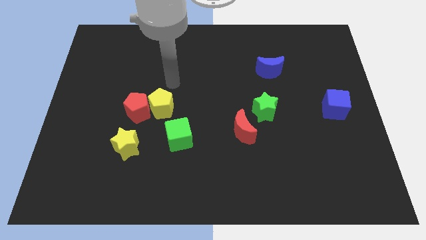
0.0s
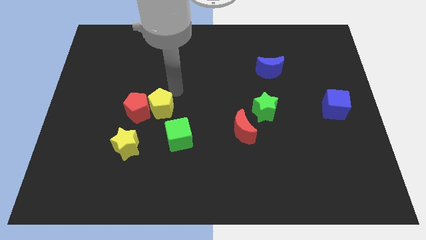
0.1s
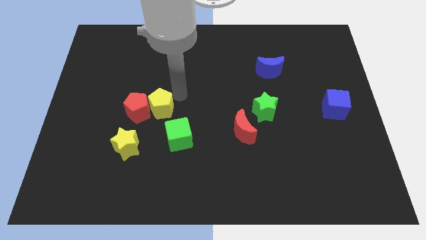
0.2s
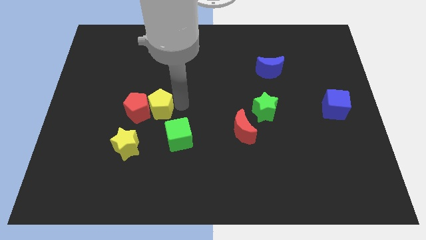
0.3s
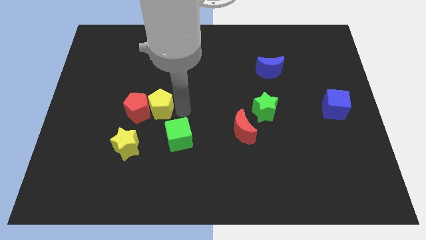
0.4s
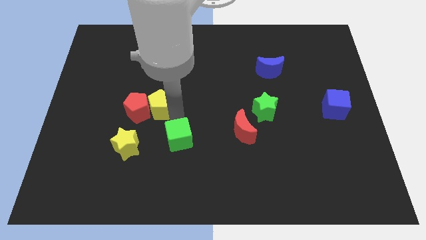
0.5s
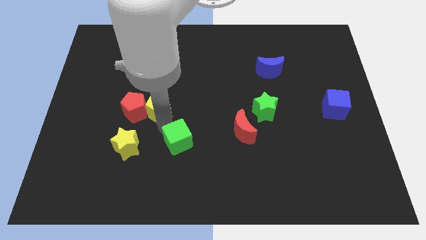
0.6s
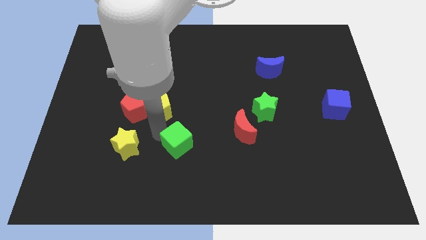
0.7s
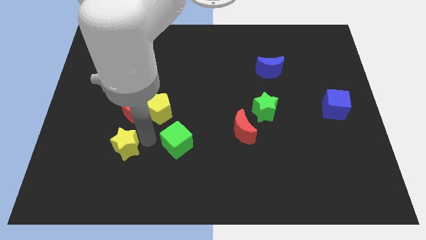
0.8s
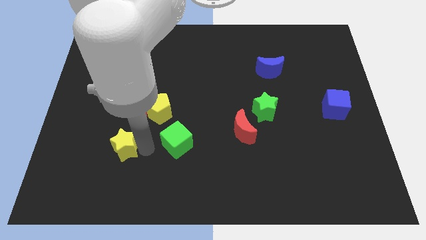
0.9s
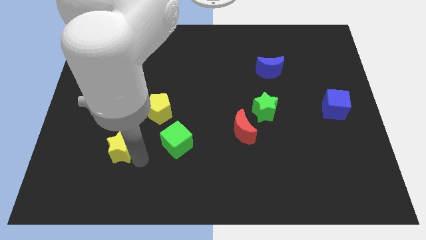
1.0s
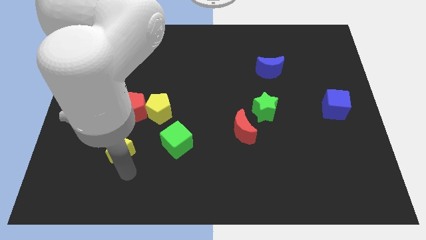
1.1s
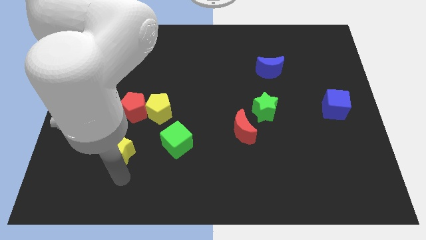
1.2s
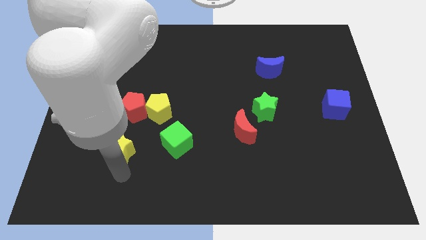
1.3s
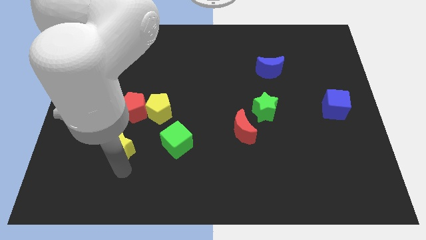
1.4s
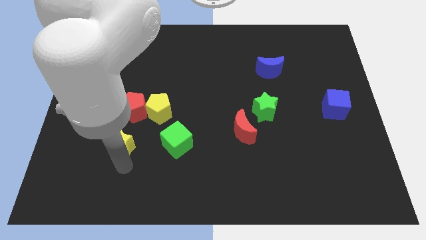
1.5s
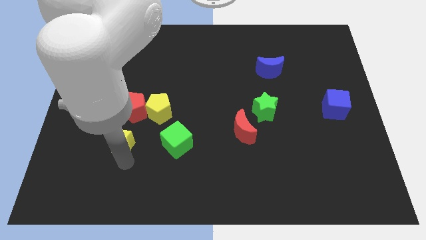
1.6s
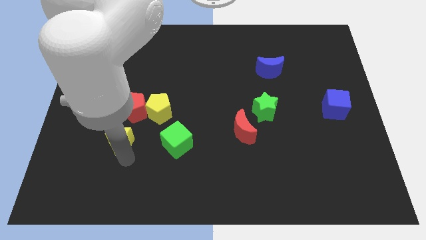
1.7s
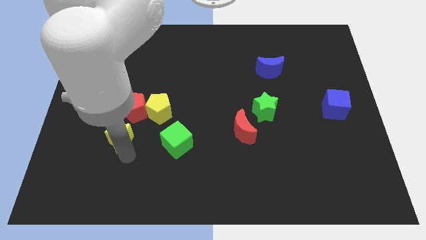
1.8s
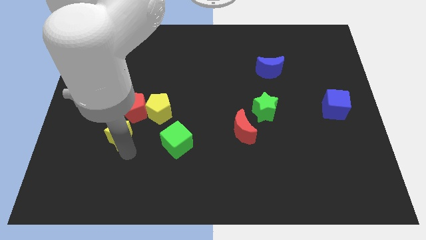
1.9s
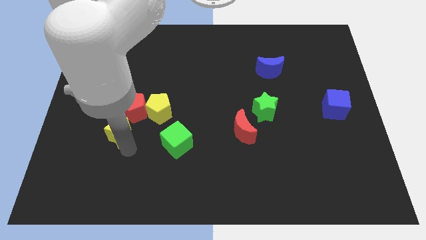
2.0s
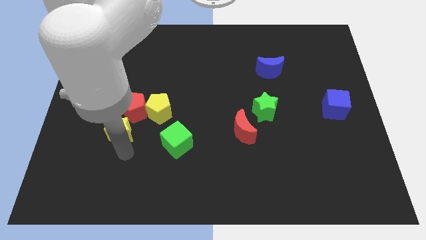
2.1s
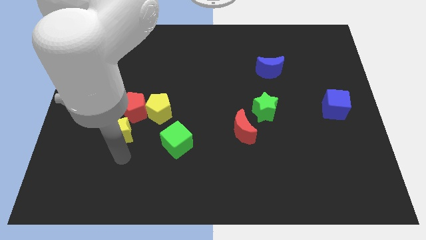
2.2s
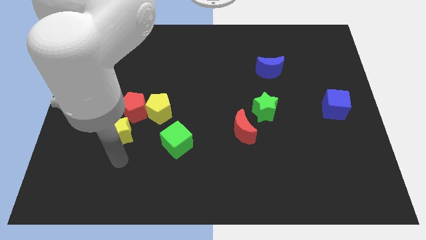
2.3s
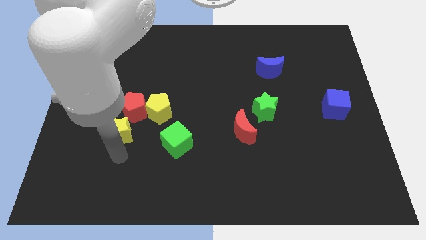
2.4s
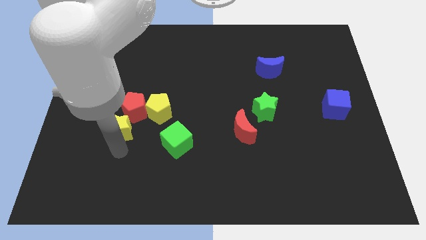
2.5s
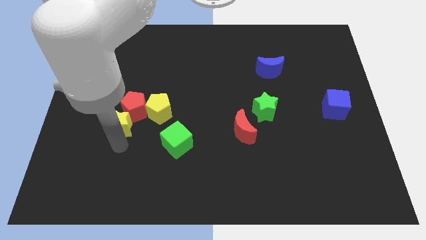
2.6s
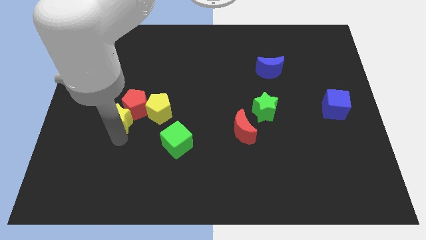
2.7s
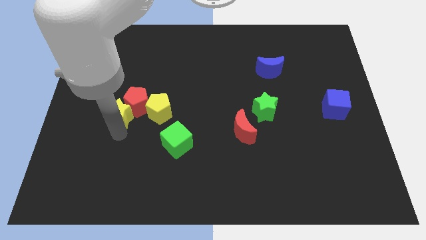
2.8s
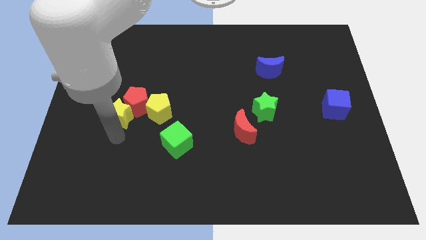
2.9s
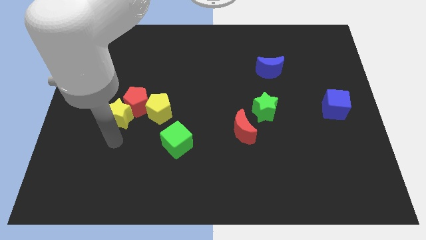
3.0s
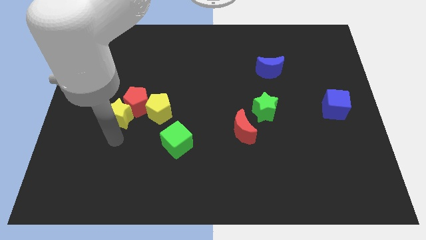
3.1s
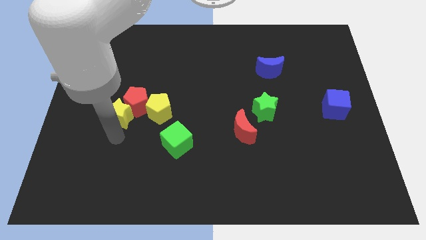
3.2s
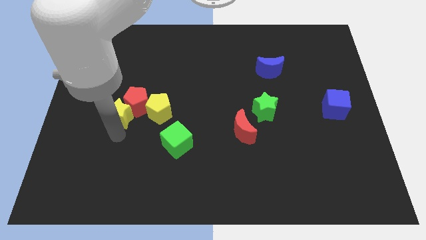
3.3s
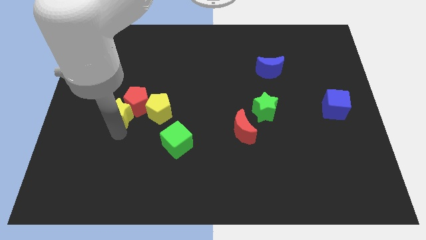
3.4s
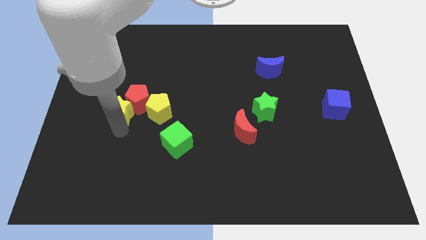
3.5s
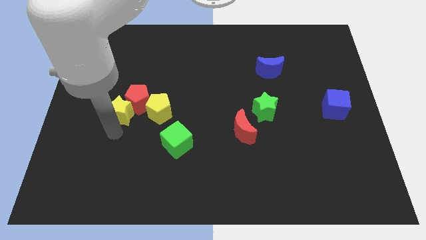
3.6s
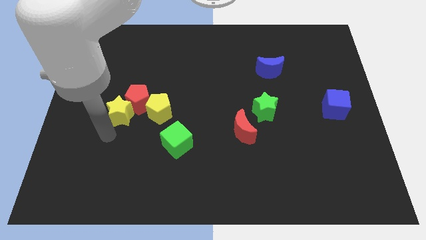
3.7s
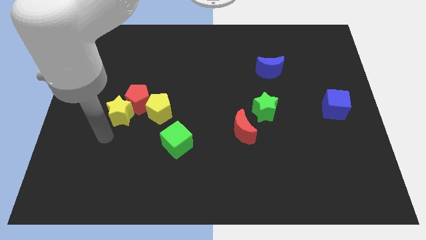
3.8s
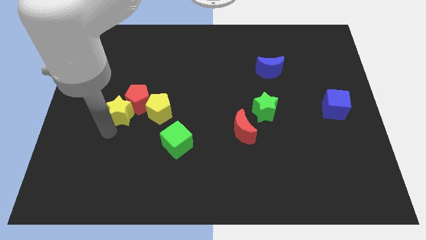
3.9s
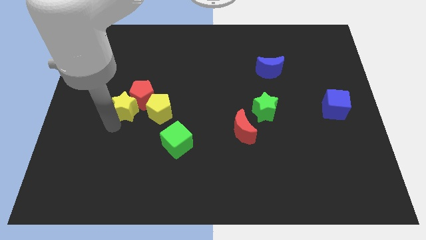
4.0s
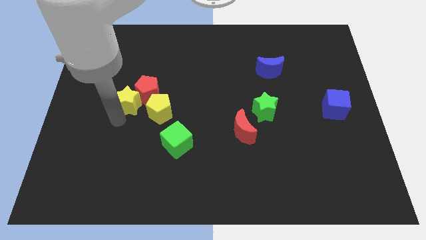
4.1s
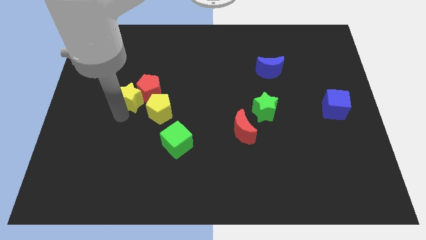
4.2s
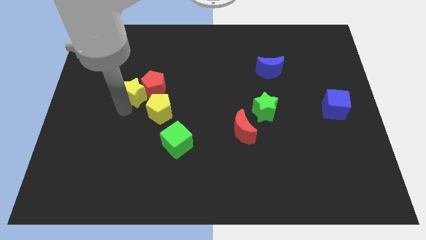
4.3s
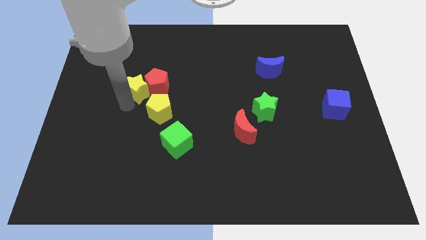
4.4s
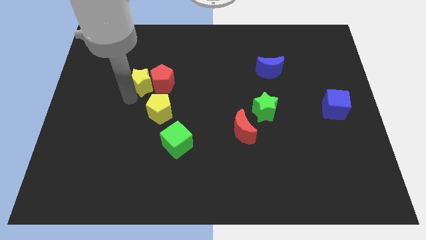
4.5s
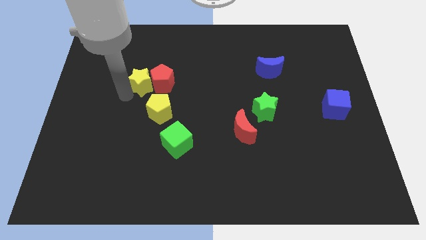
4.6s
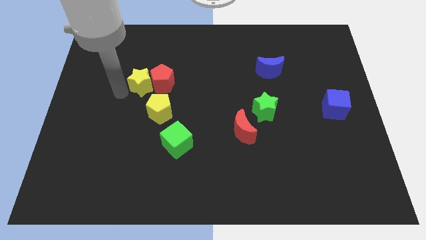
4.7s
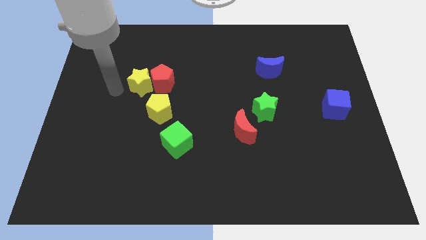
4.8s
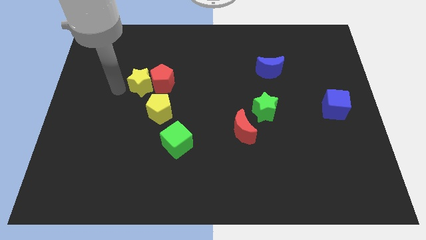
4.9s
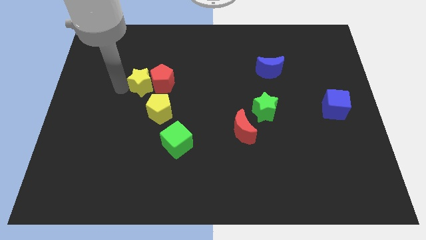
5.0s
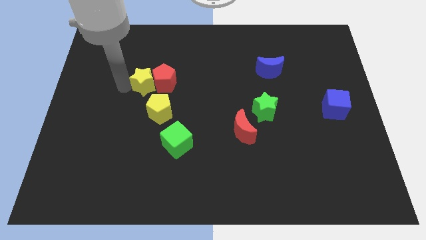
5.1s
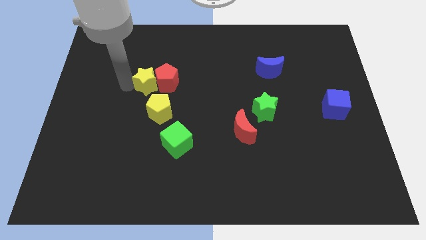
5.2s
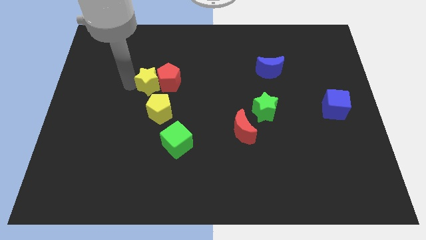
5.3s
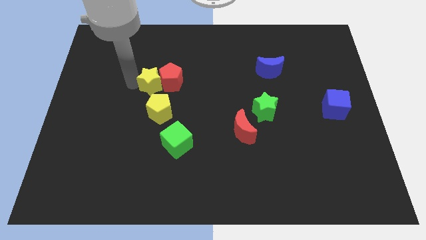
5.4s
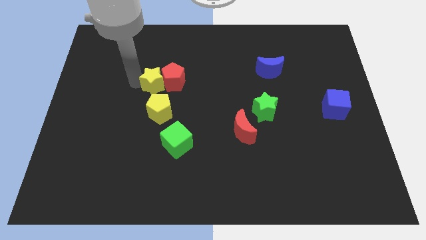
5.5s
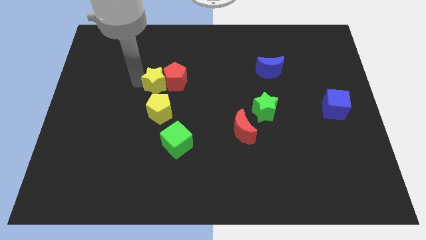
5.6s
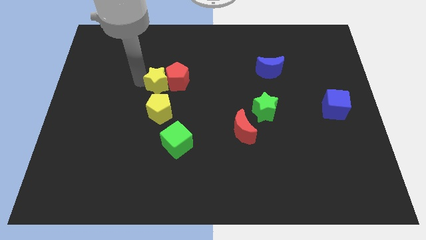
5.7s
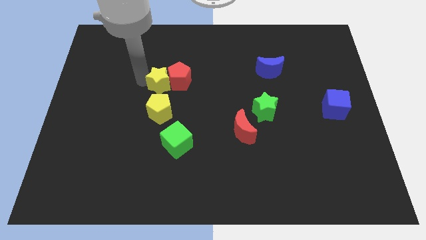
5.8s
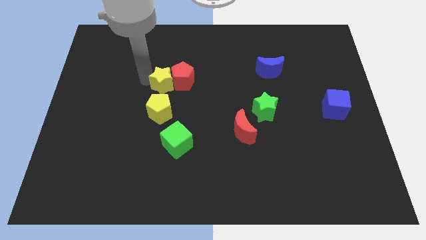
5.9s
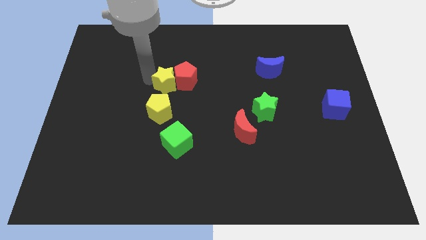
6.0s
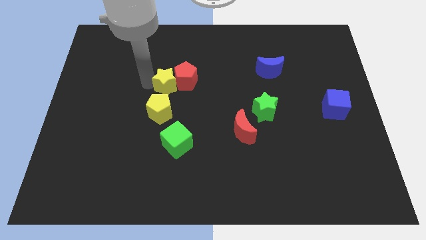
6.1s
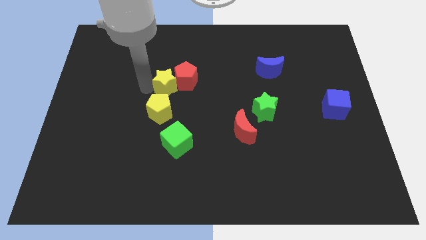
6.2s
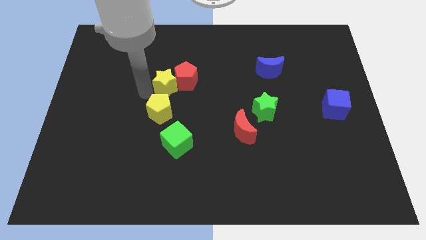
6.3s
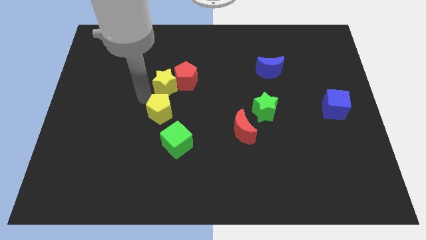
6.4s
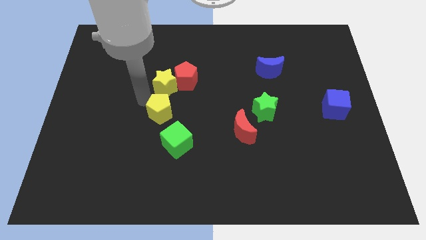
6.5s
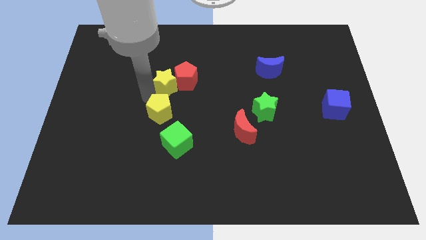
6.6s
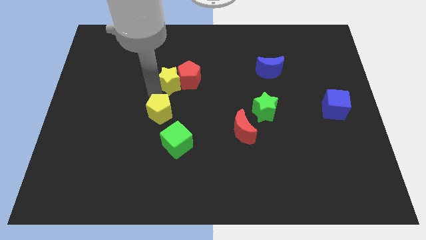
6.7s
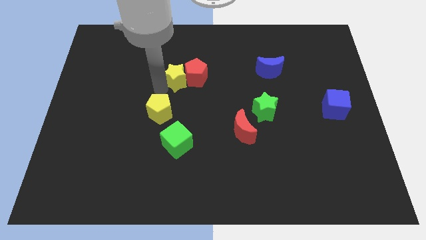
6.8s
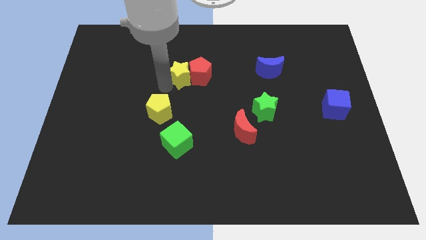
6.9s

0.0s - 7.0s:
slide the yellow star upwards and then to the right

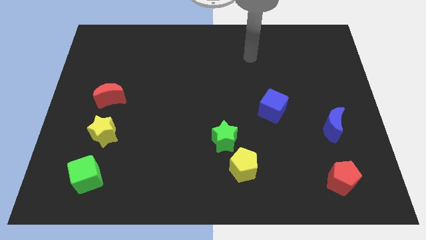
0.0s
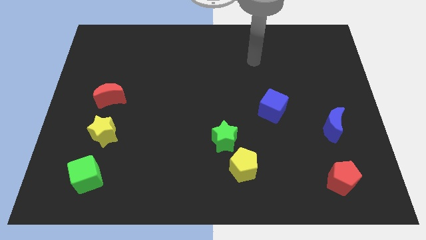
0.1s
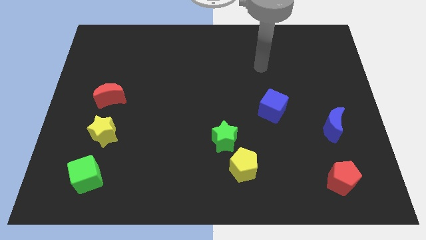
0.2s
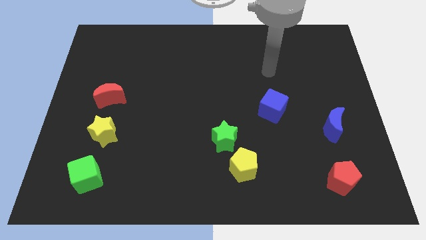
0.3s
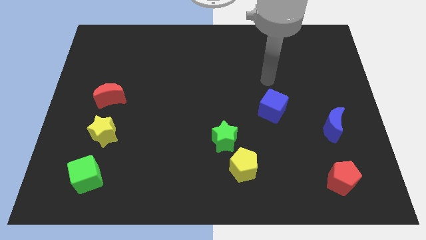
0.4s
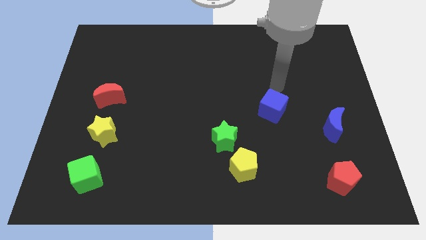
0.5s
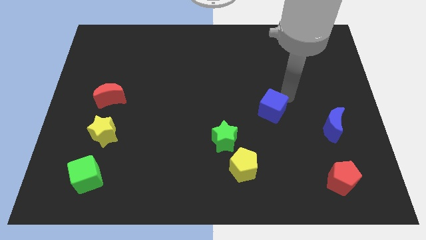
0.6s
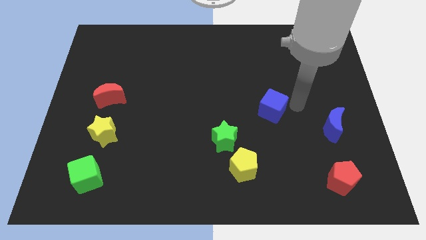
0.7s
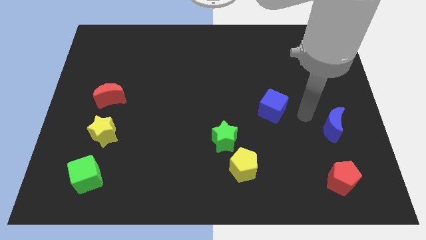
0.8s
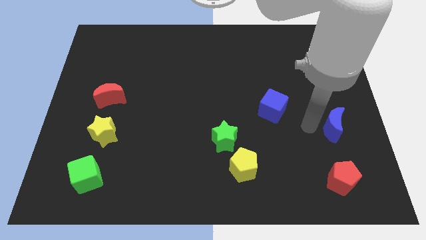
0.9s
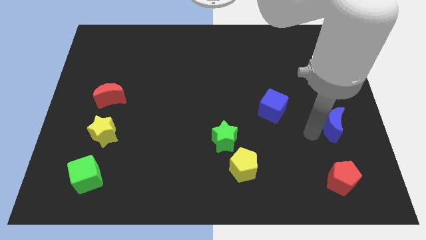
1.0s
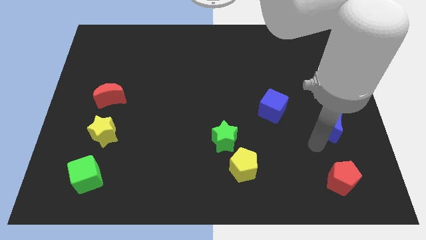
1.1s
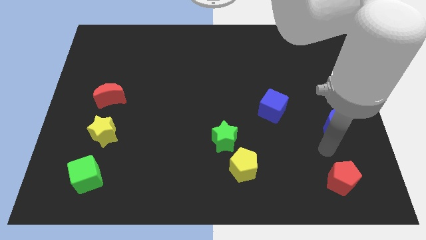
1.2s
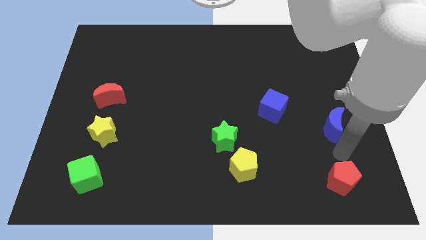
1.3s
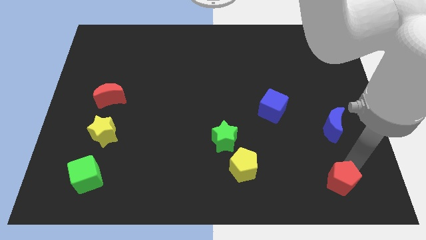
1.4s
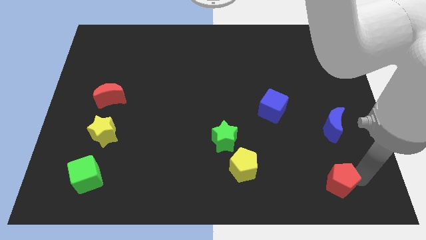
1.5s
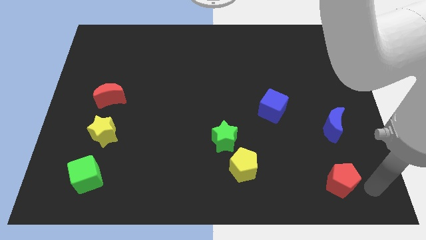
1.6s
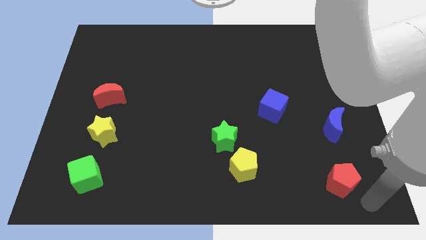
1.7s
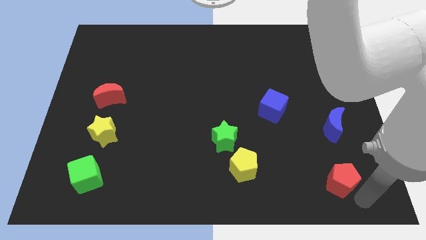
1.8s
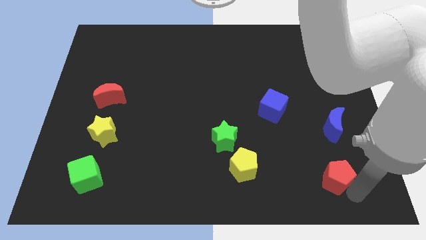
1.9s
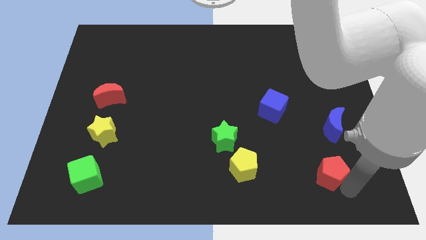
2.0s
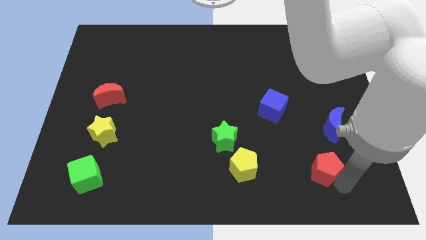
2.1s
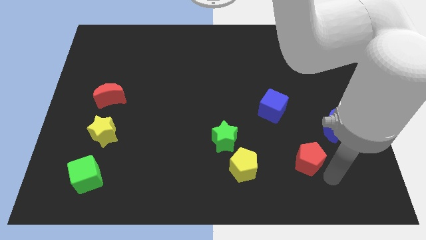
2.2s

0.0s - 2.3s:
move the red pentagon upwards and then left somewhat
